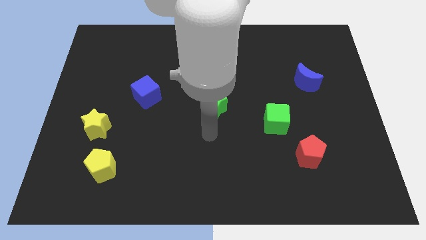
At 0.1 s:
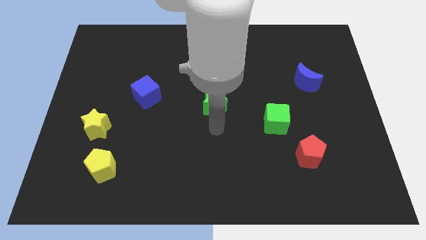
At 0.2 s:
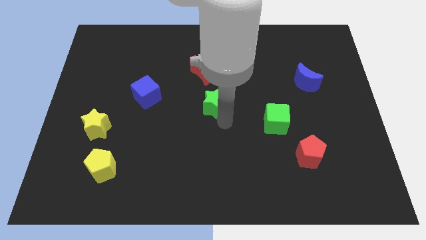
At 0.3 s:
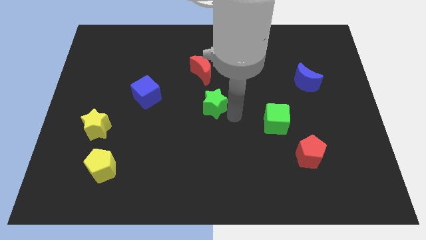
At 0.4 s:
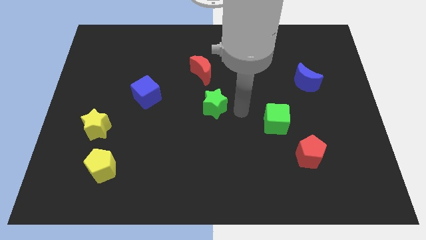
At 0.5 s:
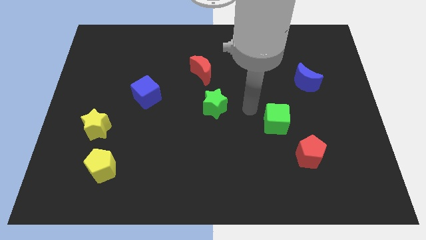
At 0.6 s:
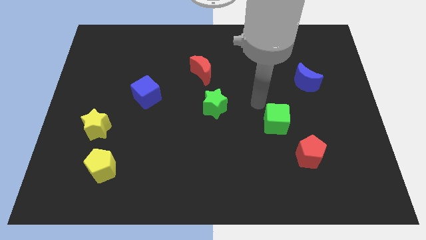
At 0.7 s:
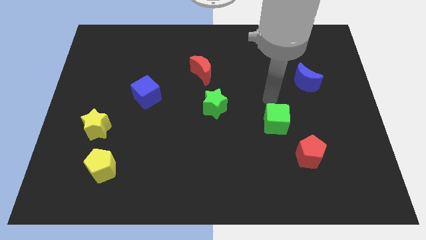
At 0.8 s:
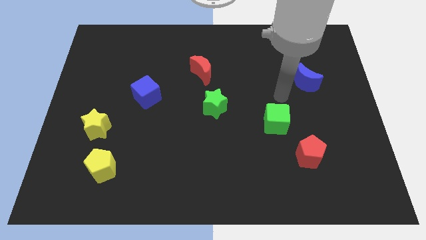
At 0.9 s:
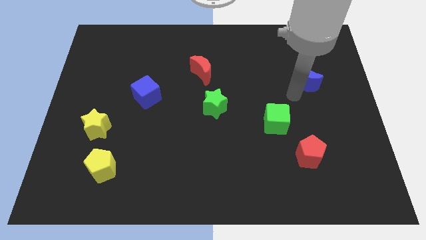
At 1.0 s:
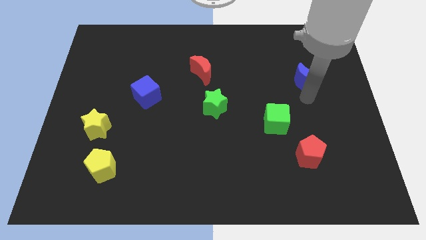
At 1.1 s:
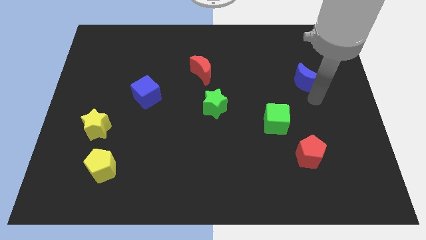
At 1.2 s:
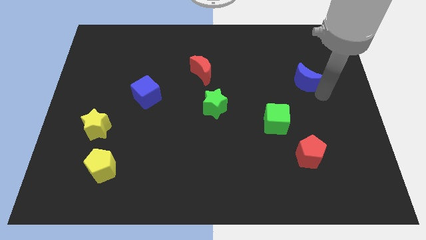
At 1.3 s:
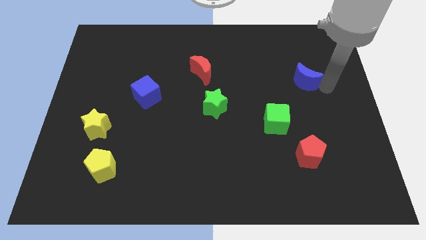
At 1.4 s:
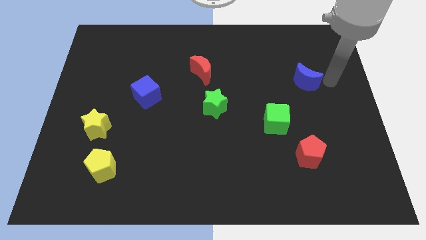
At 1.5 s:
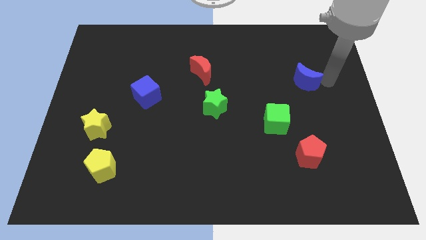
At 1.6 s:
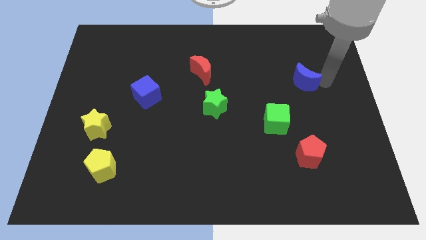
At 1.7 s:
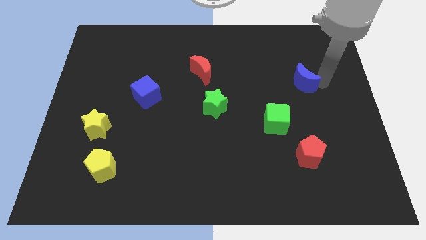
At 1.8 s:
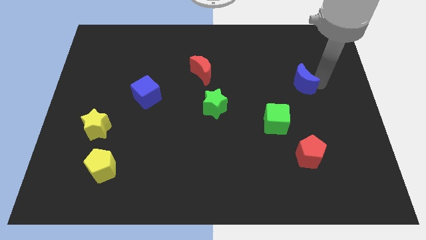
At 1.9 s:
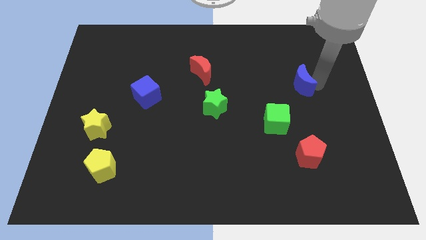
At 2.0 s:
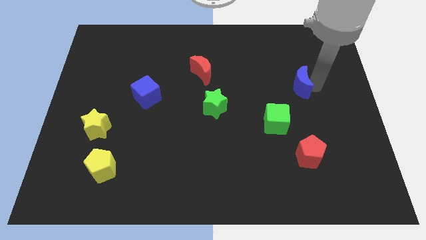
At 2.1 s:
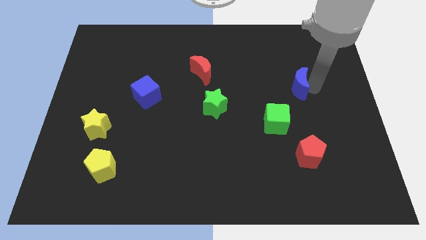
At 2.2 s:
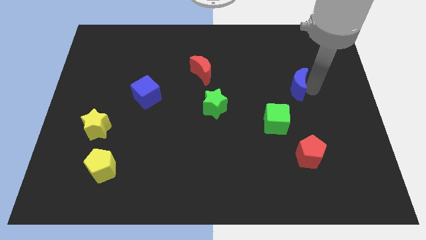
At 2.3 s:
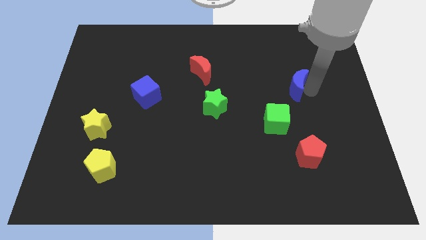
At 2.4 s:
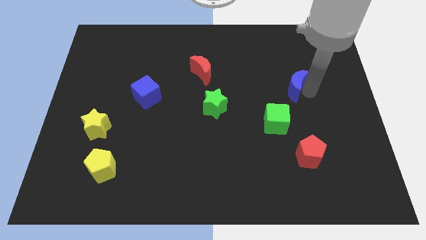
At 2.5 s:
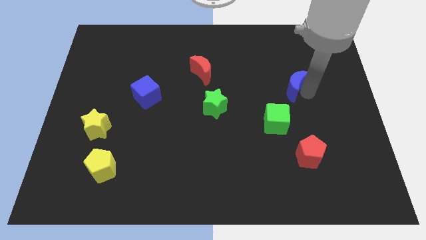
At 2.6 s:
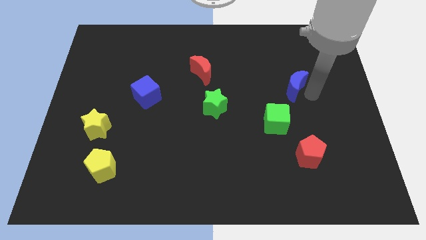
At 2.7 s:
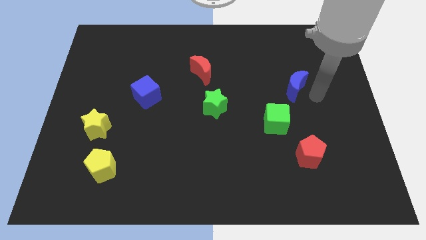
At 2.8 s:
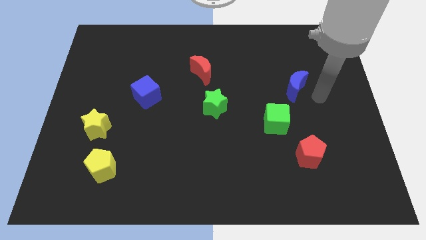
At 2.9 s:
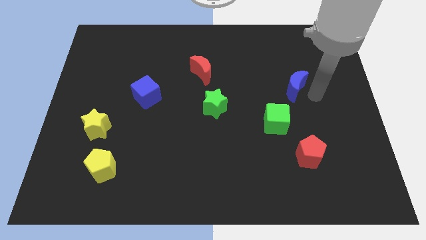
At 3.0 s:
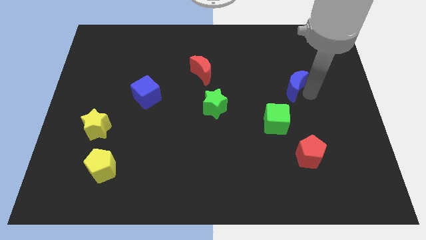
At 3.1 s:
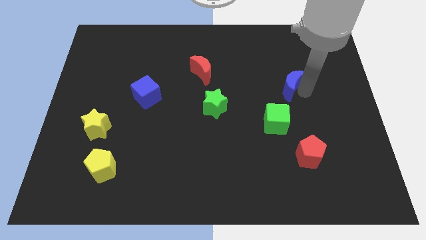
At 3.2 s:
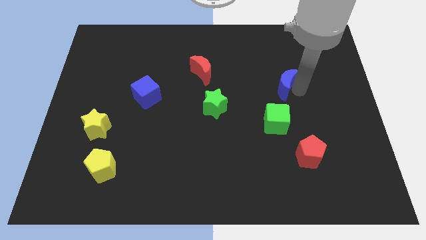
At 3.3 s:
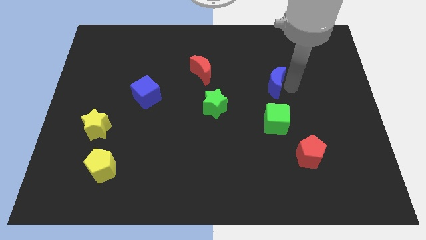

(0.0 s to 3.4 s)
slide the blue moon a little left

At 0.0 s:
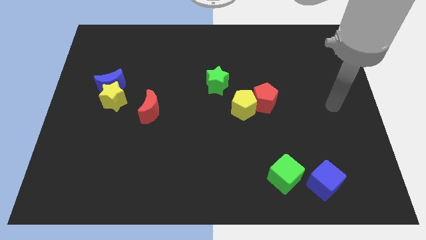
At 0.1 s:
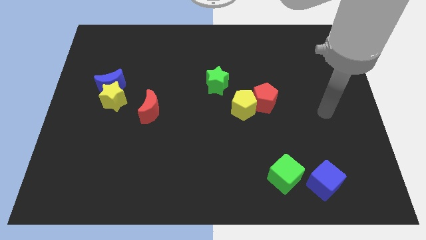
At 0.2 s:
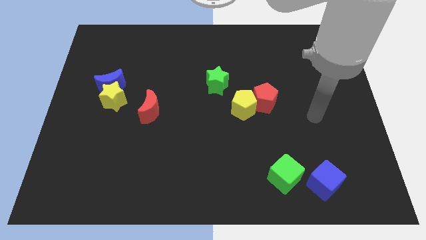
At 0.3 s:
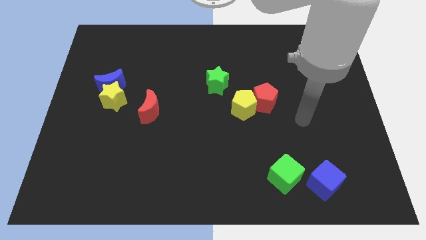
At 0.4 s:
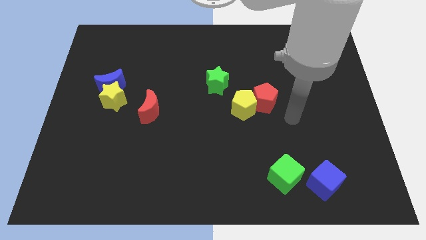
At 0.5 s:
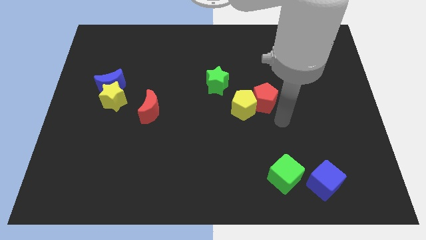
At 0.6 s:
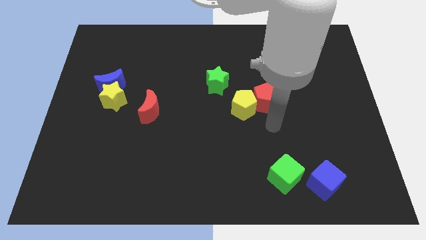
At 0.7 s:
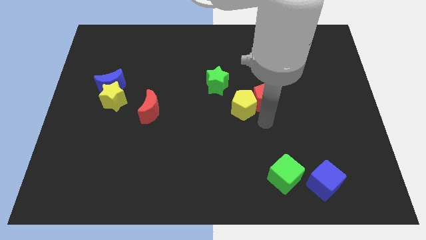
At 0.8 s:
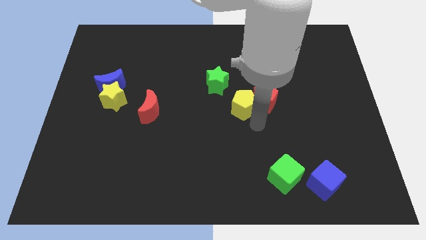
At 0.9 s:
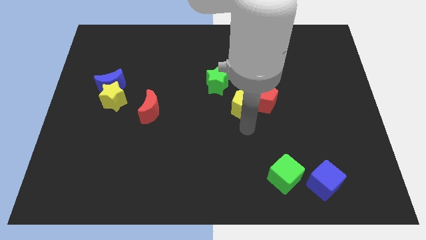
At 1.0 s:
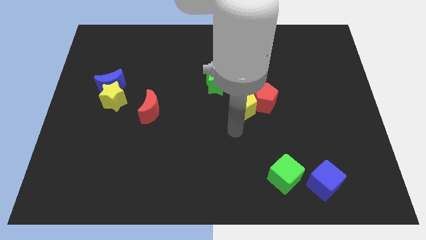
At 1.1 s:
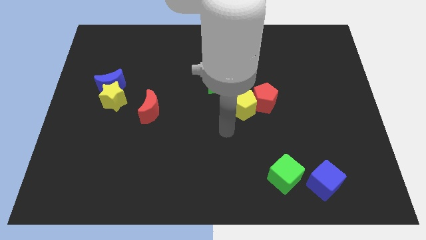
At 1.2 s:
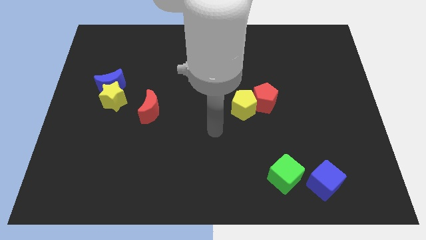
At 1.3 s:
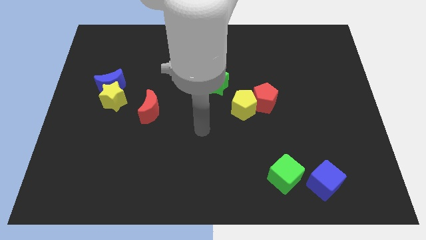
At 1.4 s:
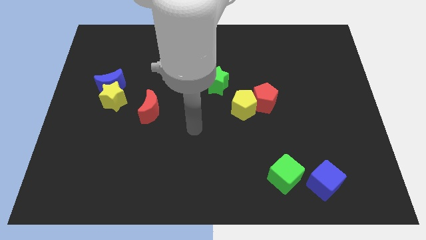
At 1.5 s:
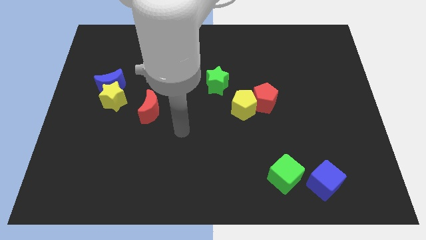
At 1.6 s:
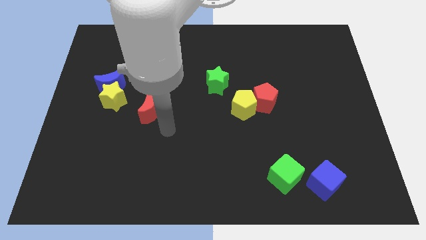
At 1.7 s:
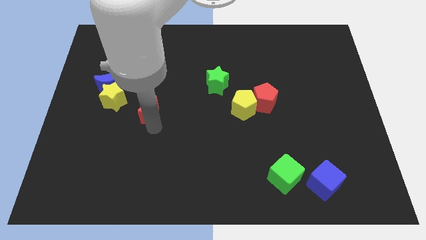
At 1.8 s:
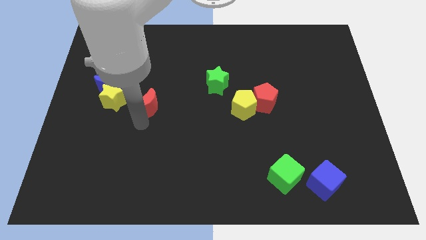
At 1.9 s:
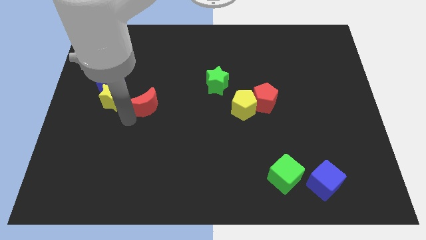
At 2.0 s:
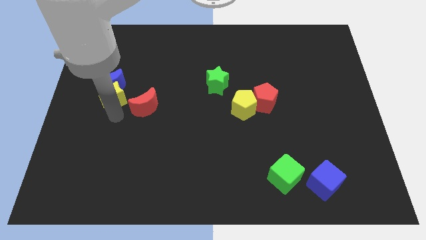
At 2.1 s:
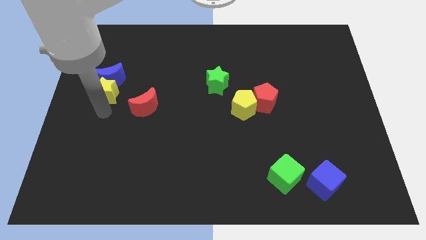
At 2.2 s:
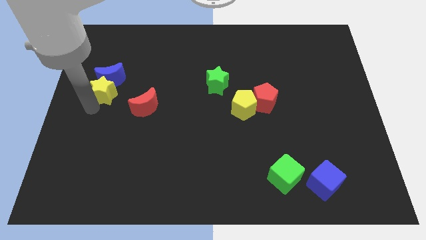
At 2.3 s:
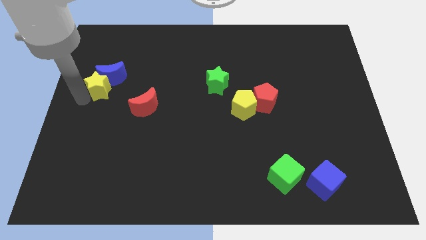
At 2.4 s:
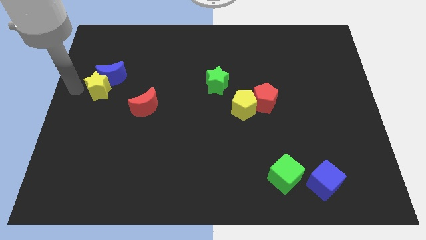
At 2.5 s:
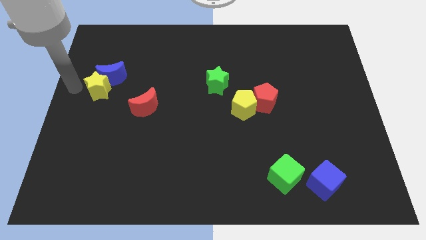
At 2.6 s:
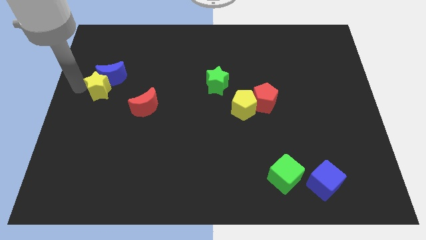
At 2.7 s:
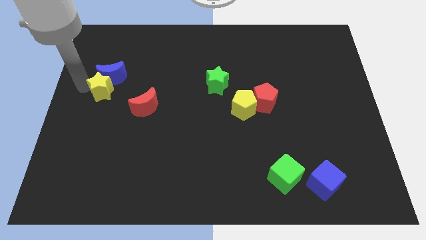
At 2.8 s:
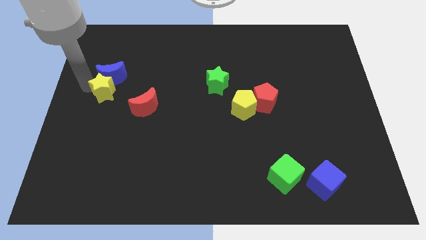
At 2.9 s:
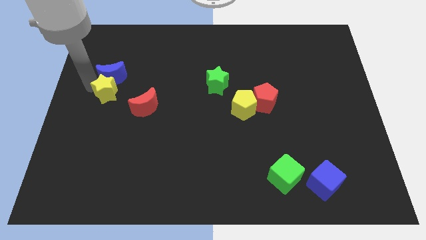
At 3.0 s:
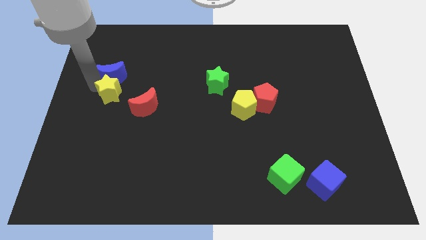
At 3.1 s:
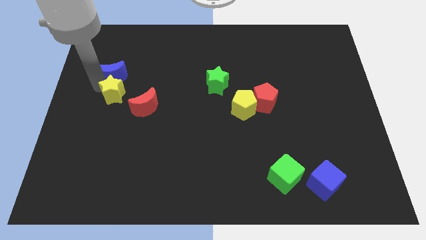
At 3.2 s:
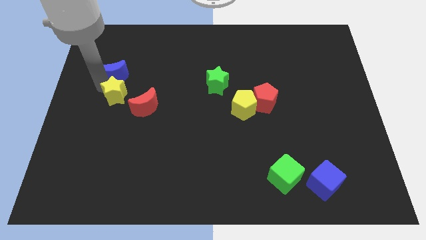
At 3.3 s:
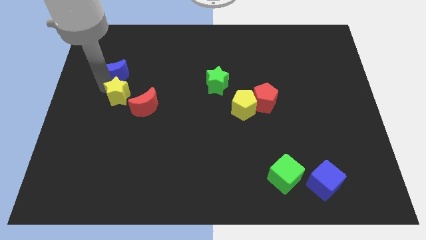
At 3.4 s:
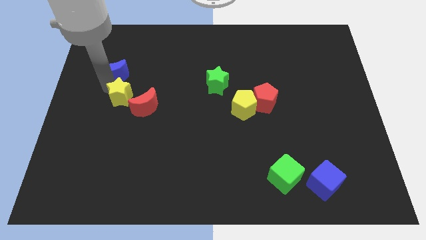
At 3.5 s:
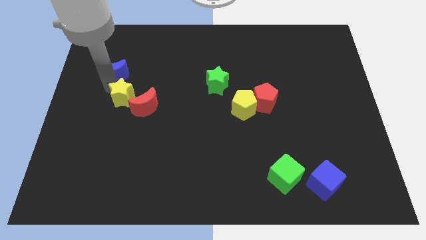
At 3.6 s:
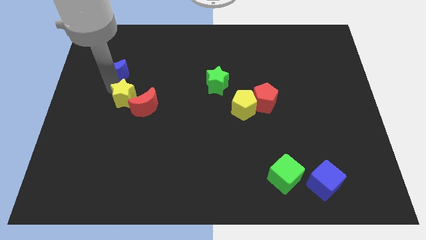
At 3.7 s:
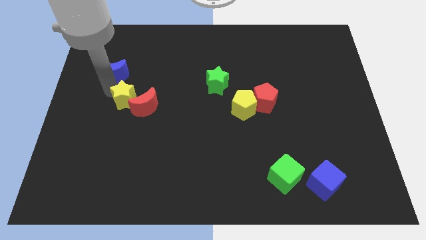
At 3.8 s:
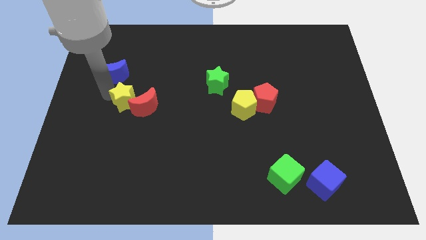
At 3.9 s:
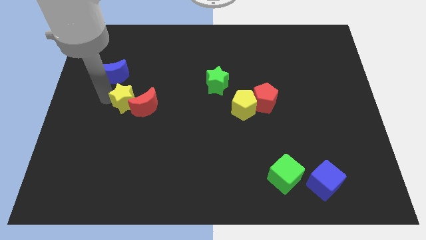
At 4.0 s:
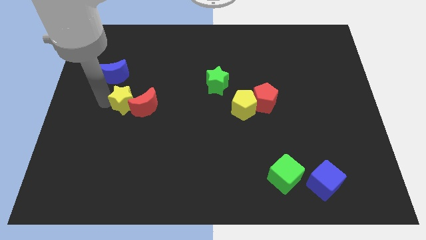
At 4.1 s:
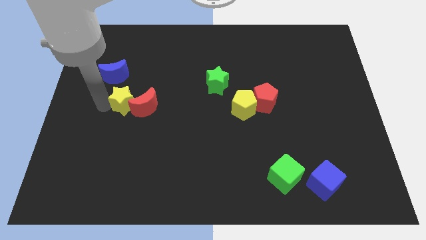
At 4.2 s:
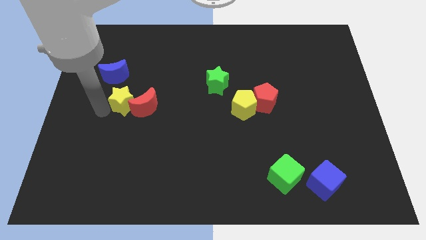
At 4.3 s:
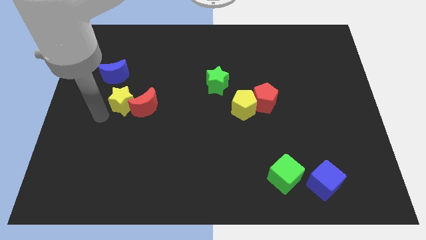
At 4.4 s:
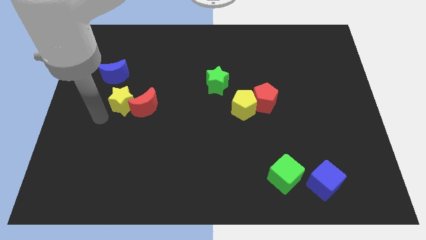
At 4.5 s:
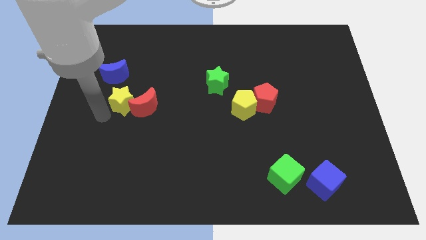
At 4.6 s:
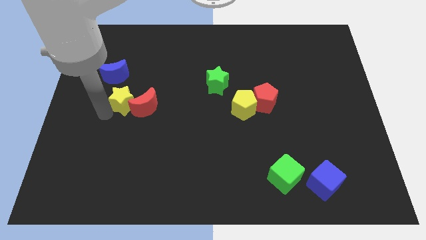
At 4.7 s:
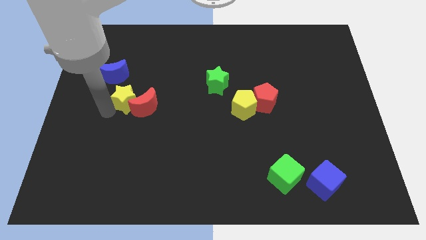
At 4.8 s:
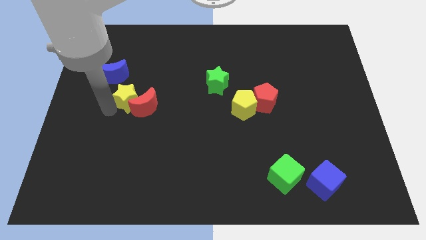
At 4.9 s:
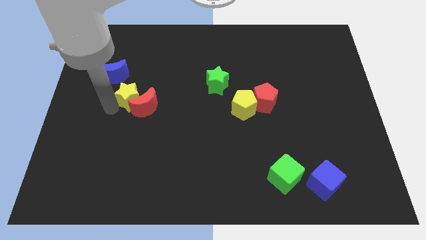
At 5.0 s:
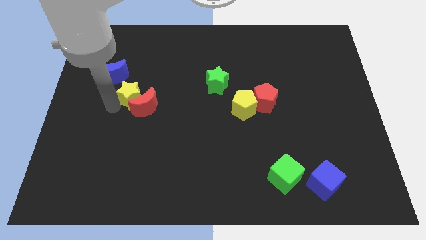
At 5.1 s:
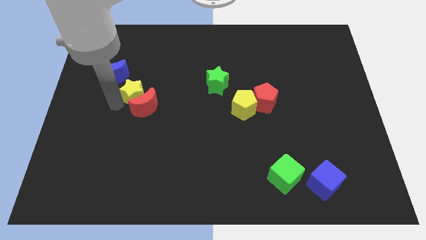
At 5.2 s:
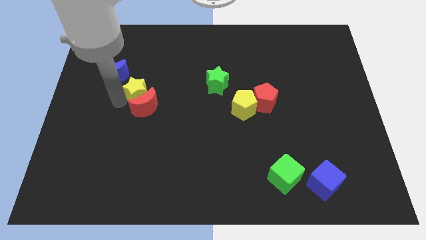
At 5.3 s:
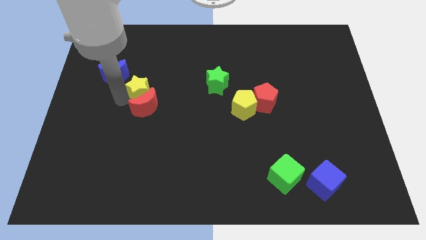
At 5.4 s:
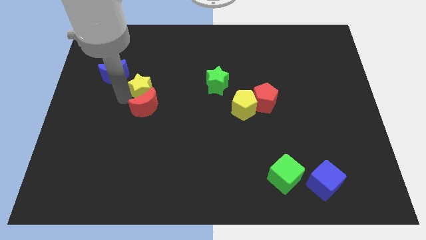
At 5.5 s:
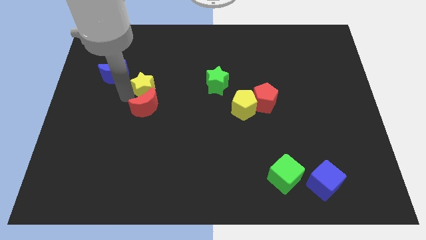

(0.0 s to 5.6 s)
move the yellow star to the right slightly
